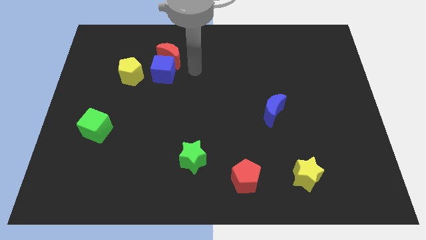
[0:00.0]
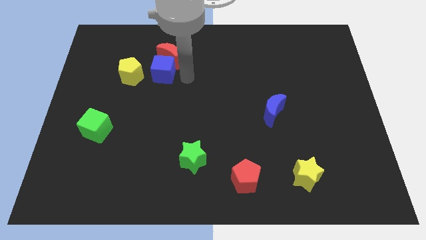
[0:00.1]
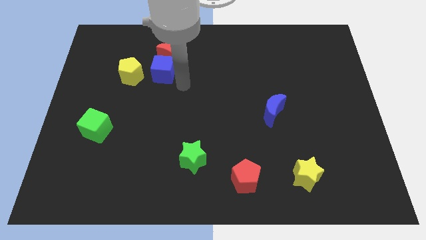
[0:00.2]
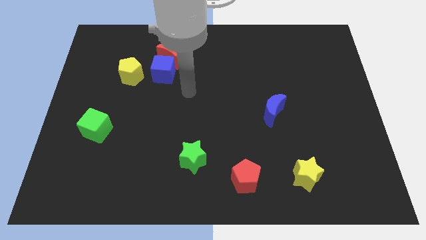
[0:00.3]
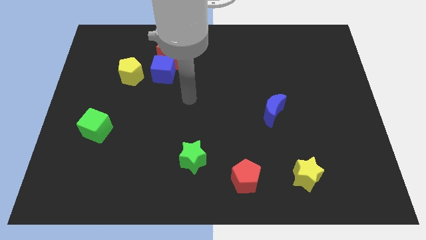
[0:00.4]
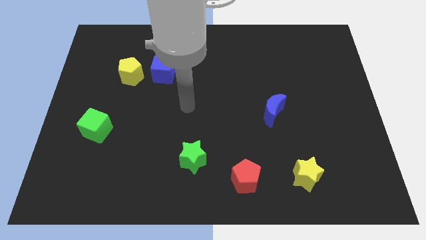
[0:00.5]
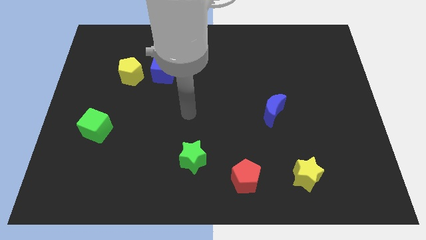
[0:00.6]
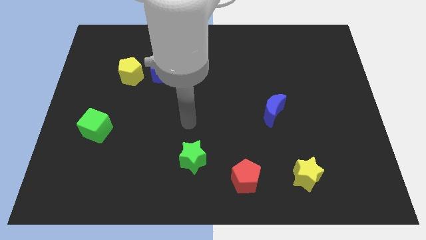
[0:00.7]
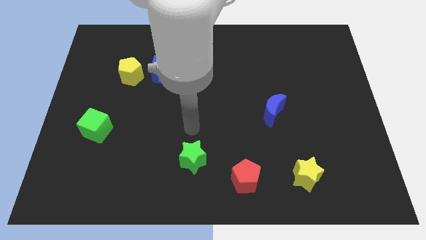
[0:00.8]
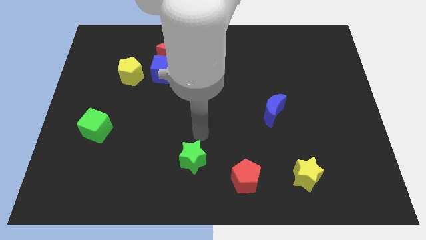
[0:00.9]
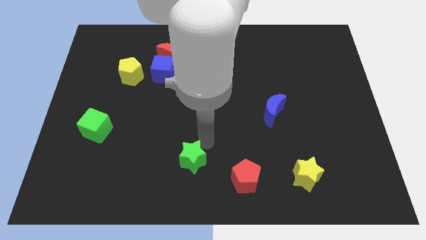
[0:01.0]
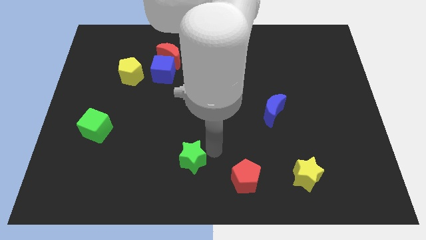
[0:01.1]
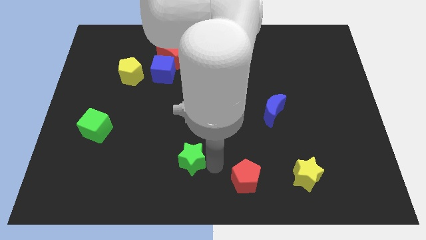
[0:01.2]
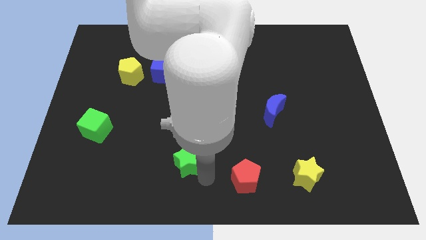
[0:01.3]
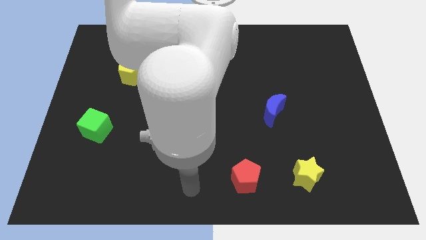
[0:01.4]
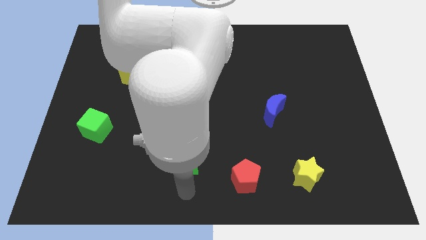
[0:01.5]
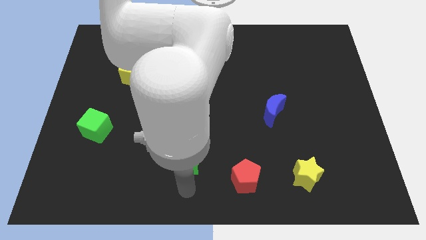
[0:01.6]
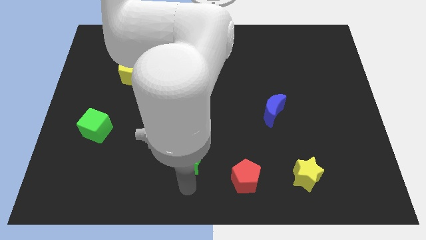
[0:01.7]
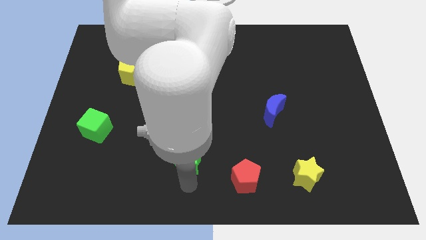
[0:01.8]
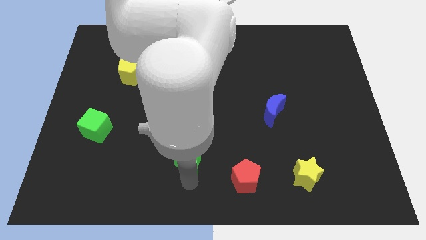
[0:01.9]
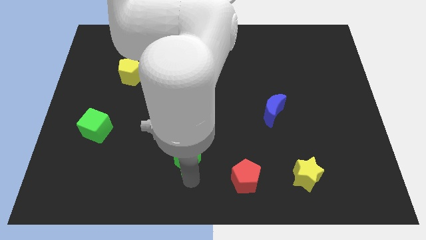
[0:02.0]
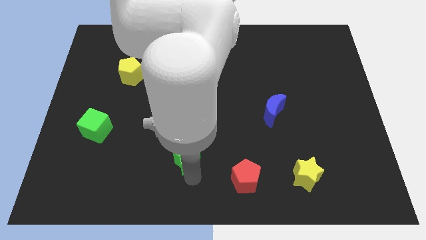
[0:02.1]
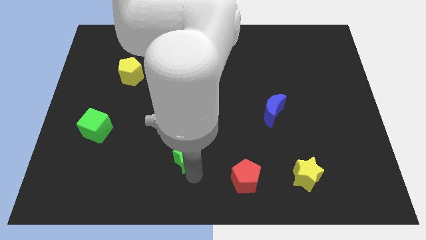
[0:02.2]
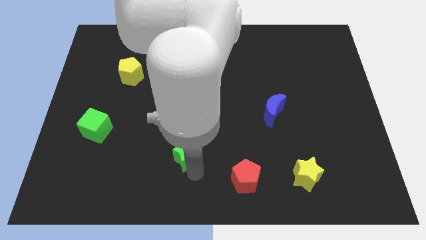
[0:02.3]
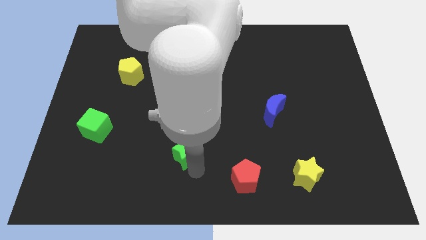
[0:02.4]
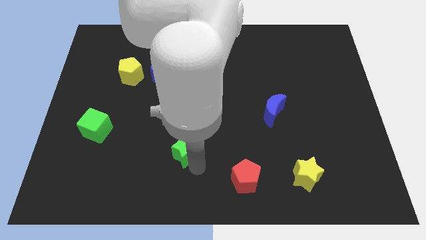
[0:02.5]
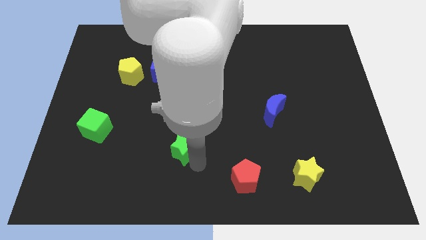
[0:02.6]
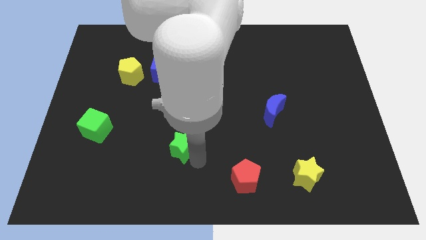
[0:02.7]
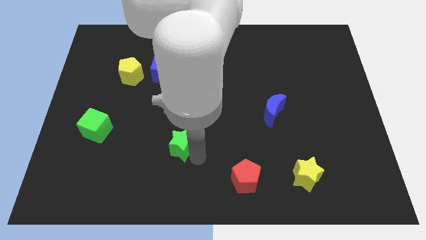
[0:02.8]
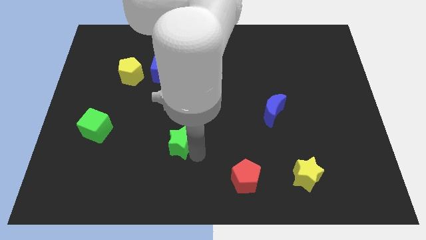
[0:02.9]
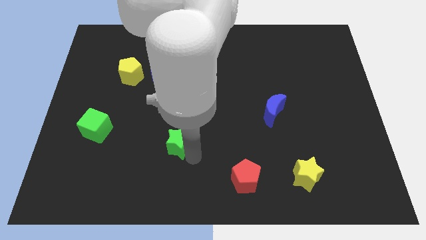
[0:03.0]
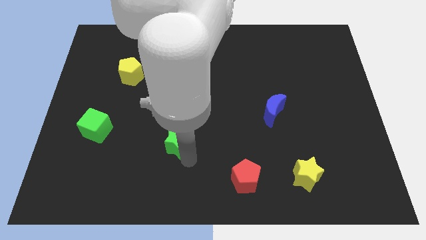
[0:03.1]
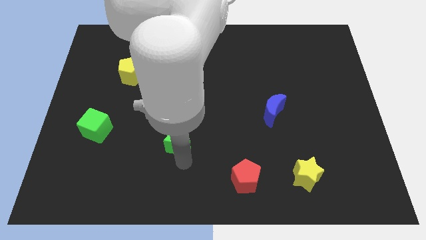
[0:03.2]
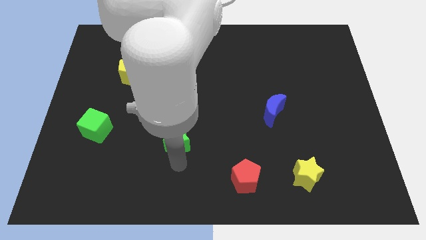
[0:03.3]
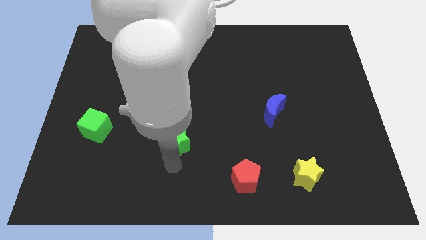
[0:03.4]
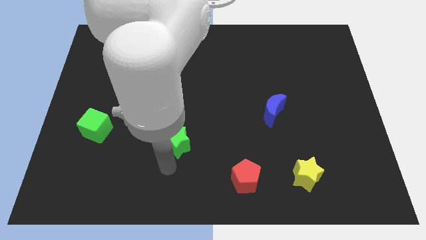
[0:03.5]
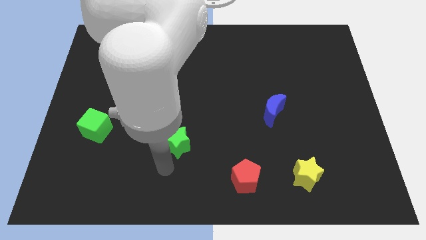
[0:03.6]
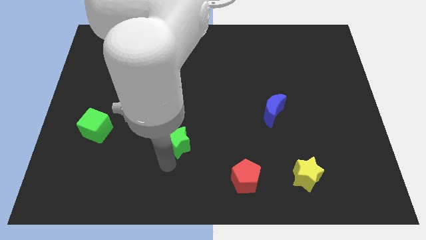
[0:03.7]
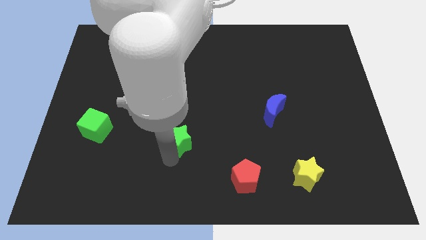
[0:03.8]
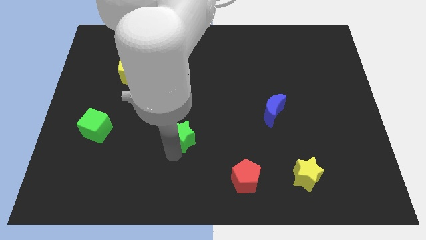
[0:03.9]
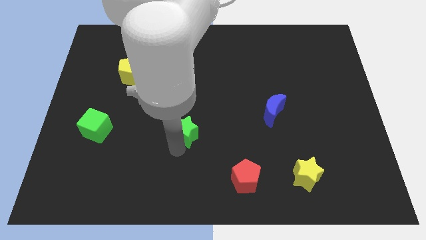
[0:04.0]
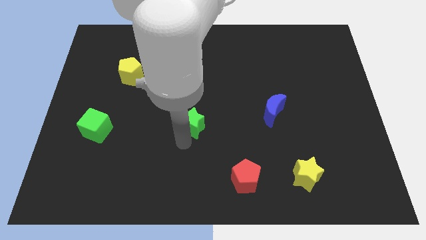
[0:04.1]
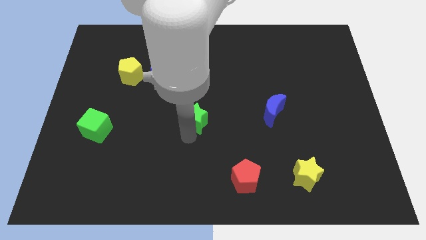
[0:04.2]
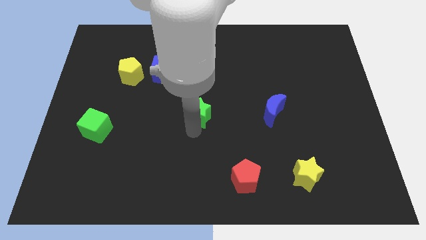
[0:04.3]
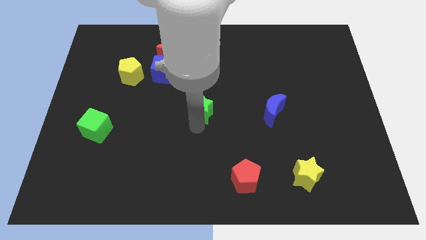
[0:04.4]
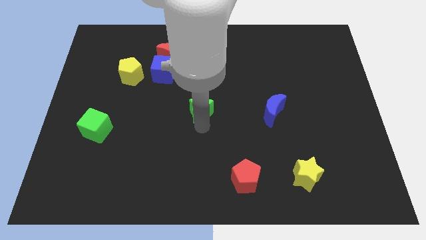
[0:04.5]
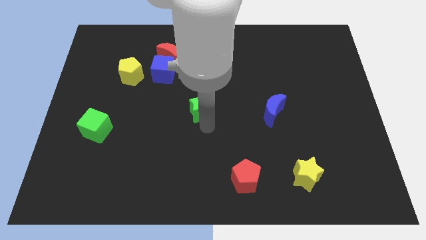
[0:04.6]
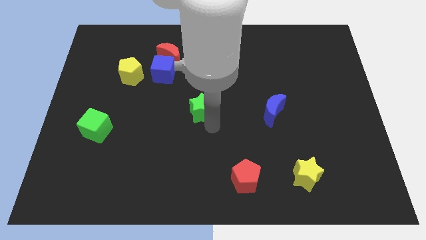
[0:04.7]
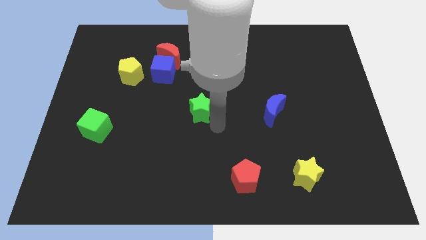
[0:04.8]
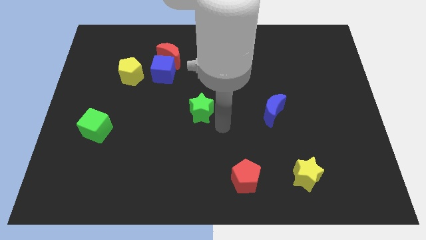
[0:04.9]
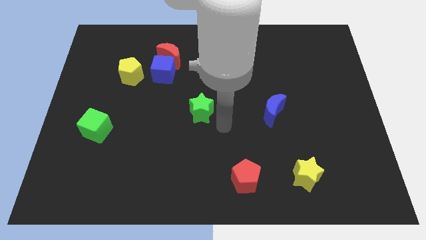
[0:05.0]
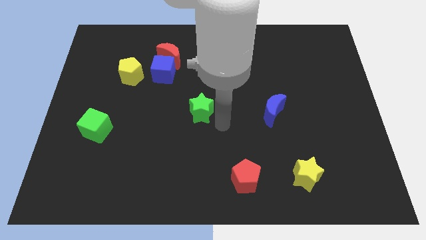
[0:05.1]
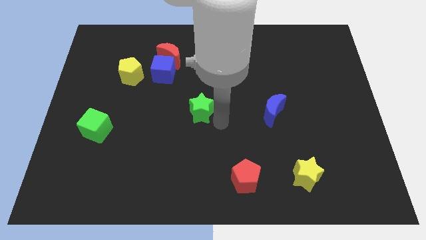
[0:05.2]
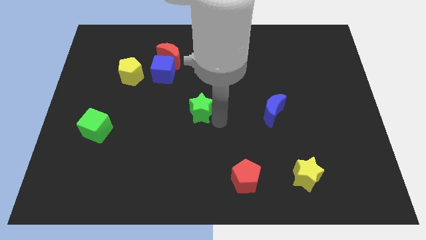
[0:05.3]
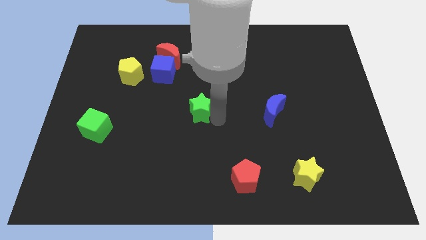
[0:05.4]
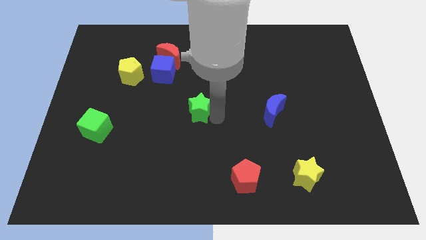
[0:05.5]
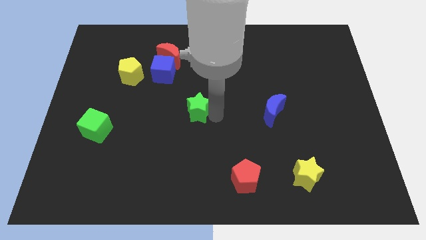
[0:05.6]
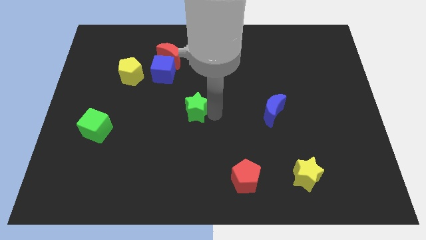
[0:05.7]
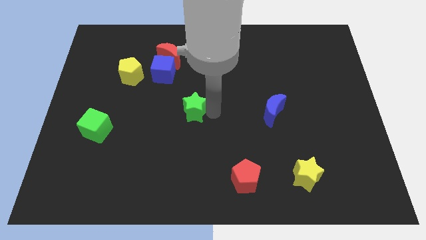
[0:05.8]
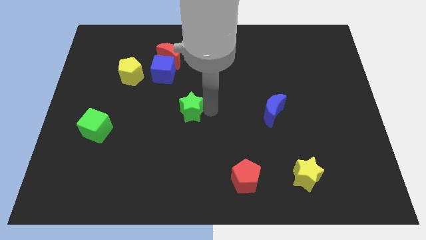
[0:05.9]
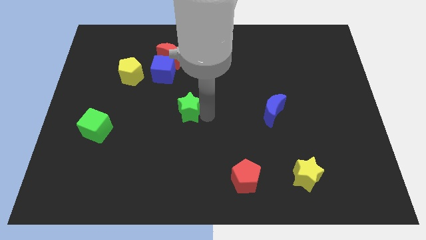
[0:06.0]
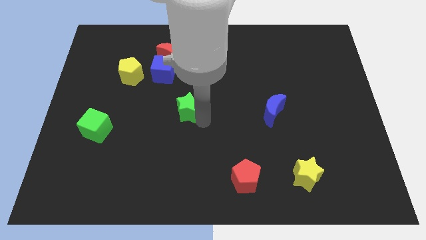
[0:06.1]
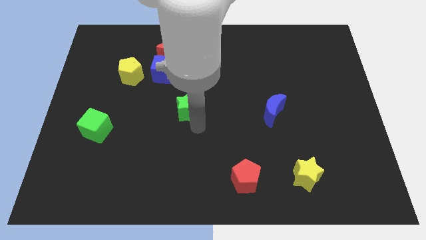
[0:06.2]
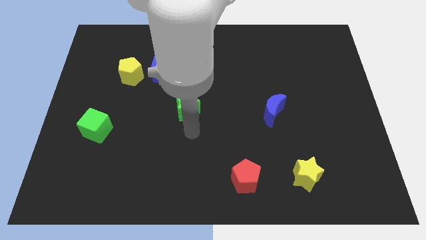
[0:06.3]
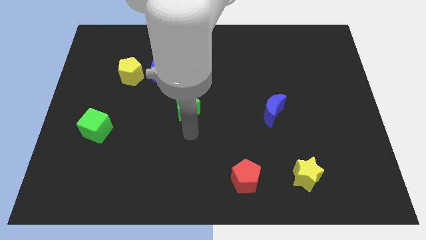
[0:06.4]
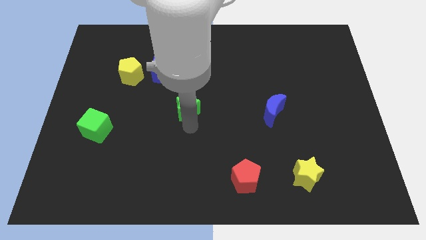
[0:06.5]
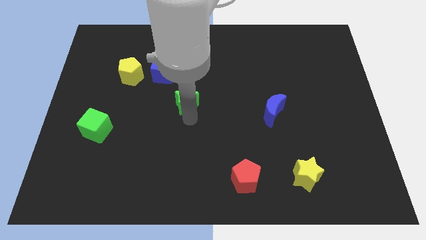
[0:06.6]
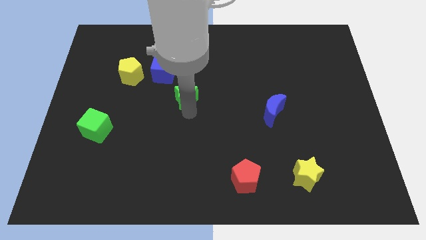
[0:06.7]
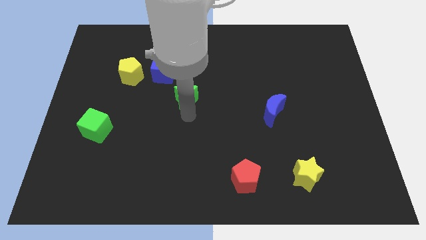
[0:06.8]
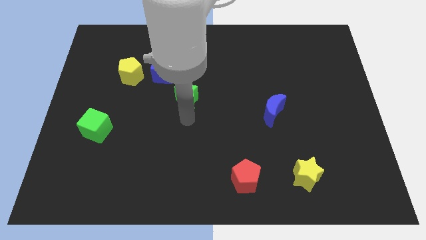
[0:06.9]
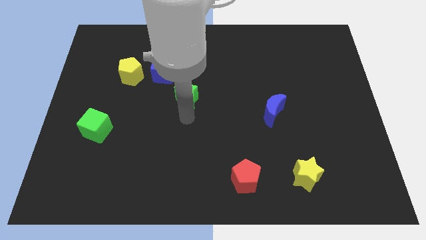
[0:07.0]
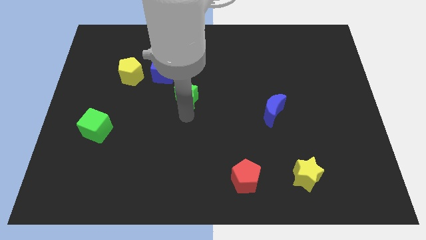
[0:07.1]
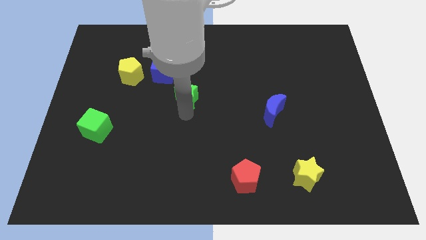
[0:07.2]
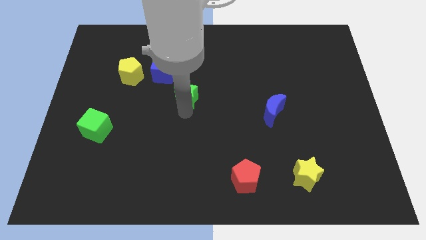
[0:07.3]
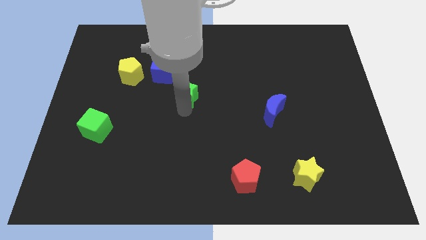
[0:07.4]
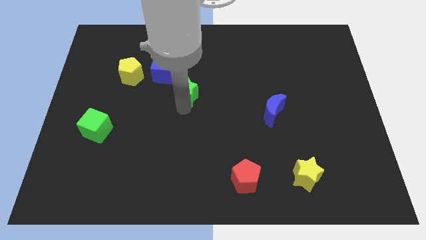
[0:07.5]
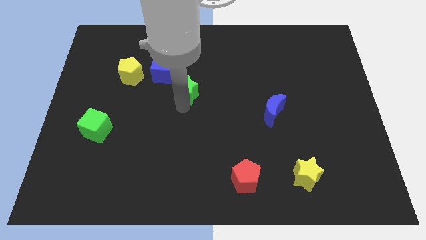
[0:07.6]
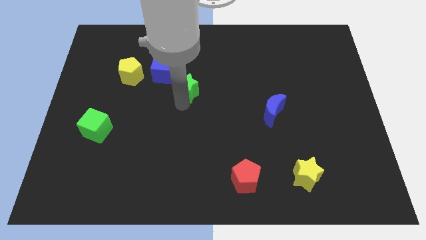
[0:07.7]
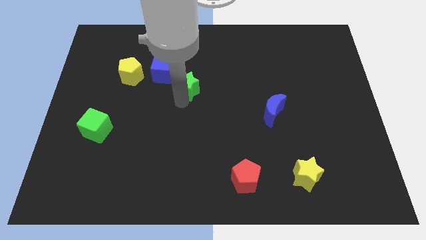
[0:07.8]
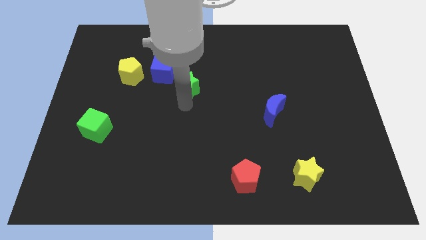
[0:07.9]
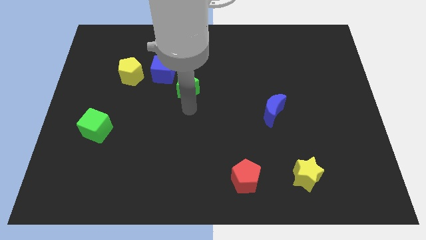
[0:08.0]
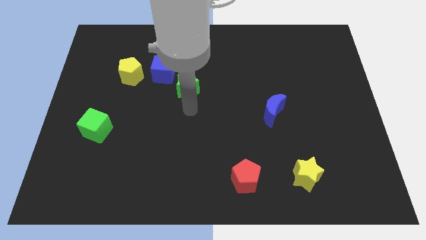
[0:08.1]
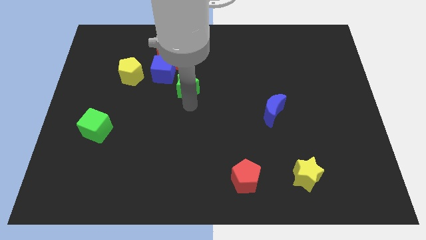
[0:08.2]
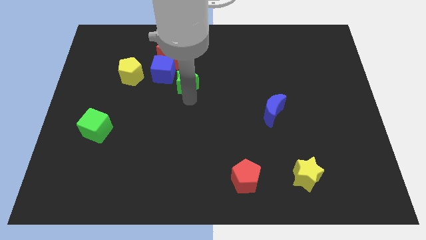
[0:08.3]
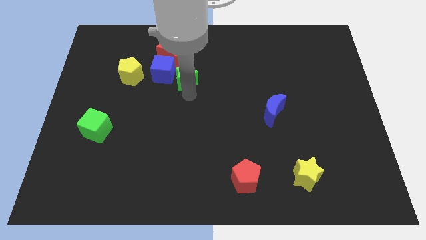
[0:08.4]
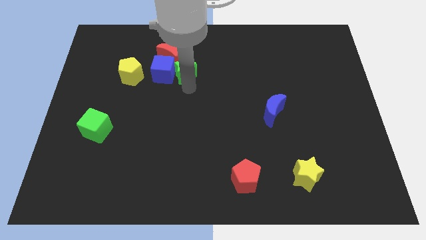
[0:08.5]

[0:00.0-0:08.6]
slide the green star to the top right side of the blue cube
